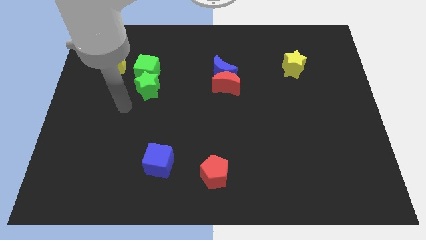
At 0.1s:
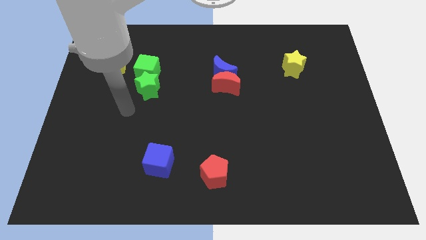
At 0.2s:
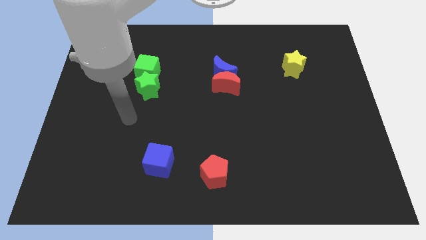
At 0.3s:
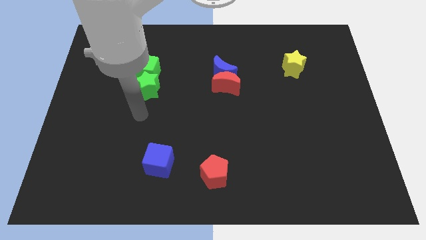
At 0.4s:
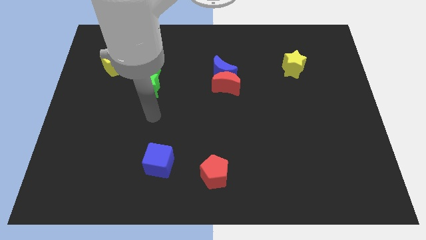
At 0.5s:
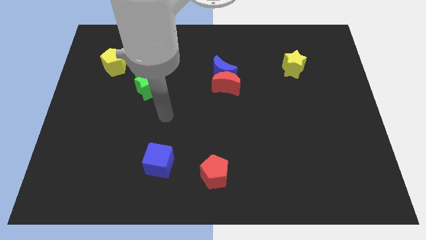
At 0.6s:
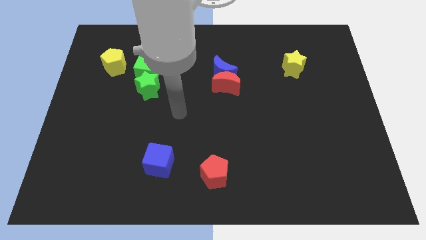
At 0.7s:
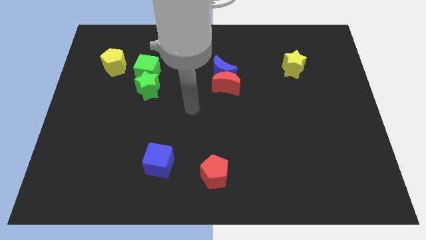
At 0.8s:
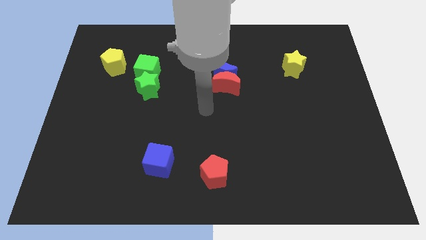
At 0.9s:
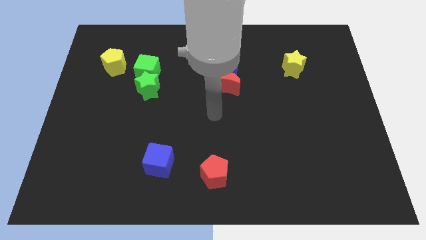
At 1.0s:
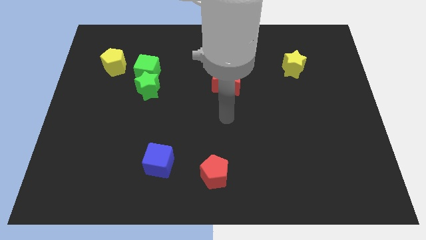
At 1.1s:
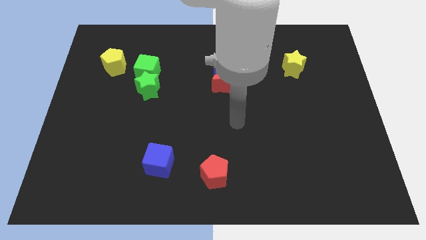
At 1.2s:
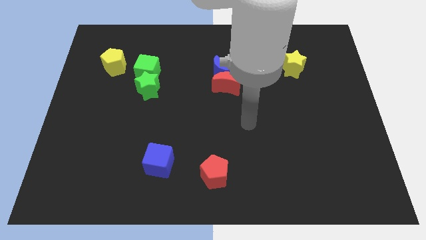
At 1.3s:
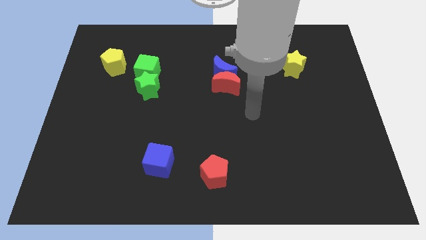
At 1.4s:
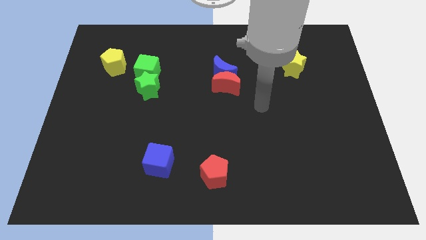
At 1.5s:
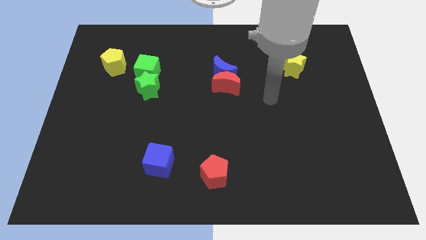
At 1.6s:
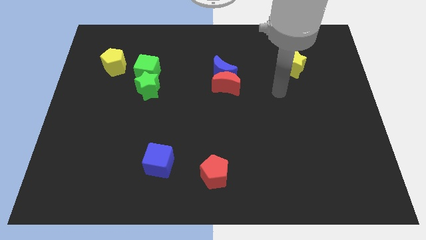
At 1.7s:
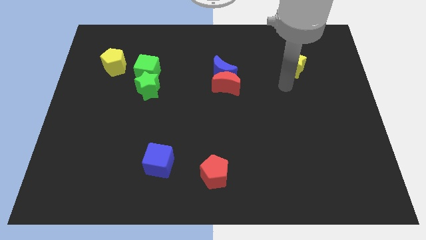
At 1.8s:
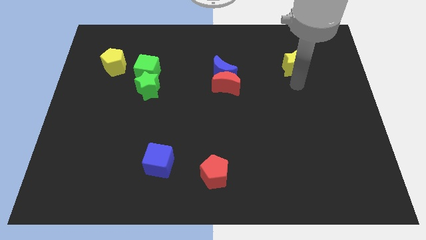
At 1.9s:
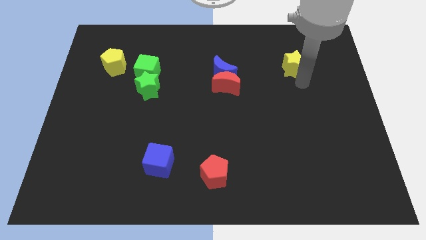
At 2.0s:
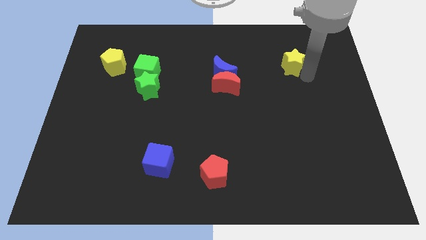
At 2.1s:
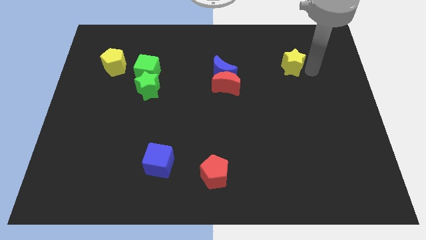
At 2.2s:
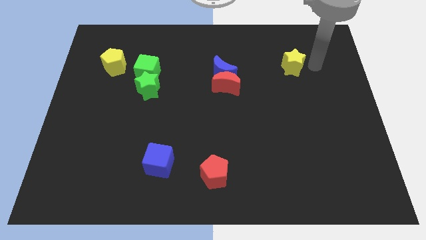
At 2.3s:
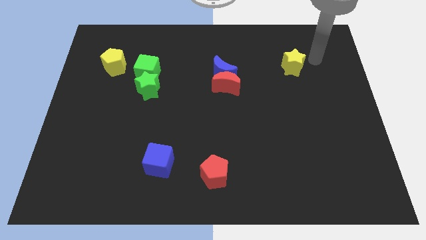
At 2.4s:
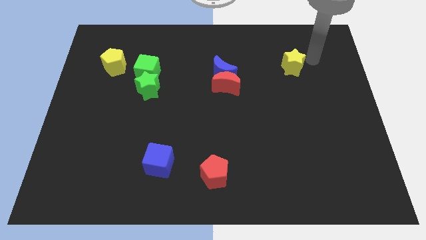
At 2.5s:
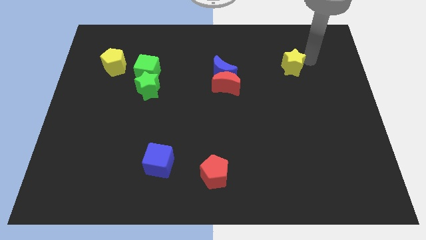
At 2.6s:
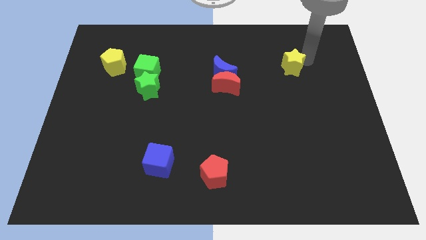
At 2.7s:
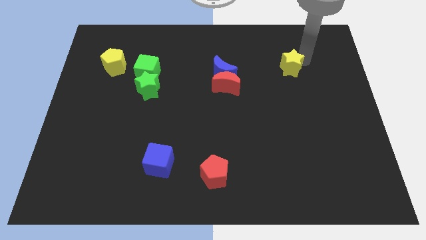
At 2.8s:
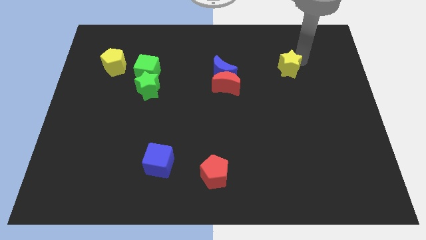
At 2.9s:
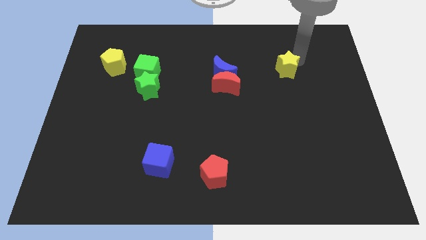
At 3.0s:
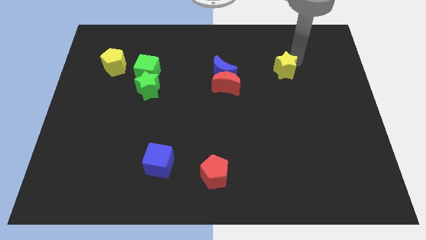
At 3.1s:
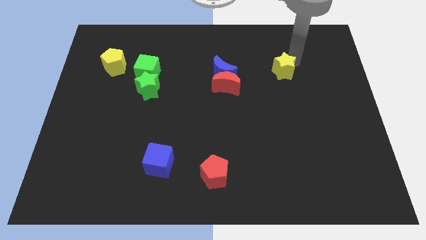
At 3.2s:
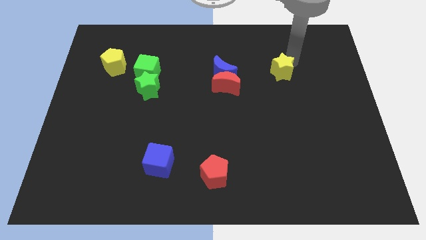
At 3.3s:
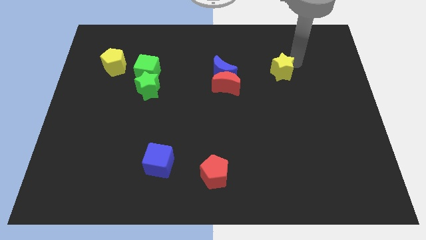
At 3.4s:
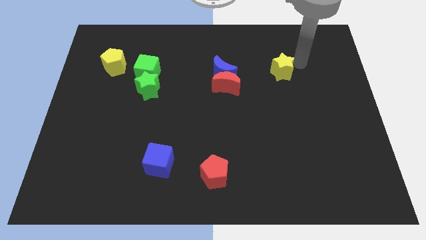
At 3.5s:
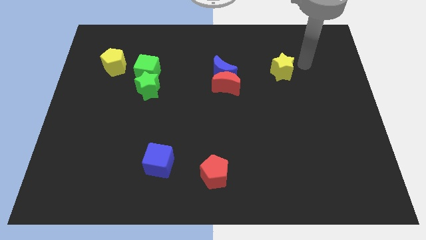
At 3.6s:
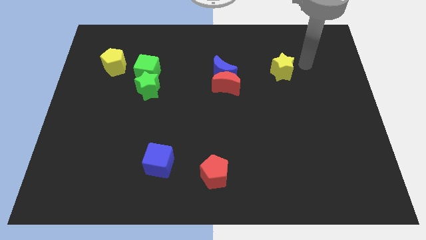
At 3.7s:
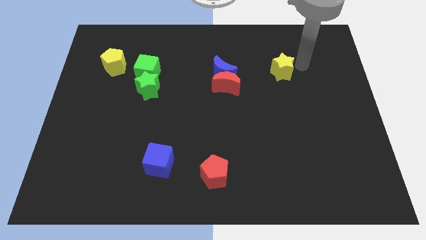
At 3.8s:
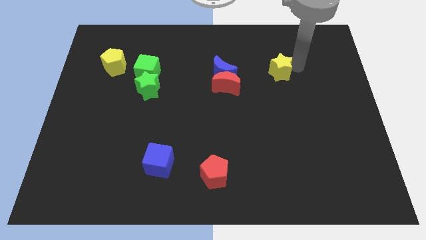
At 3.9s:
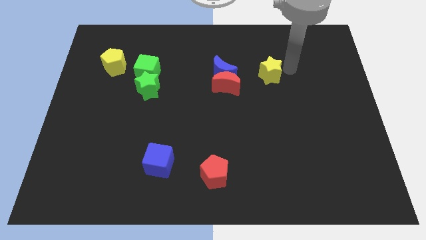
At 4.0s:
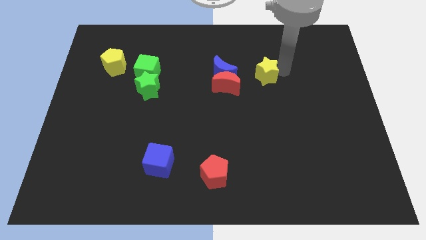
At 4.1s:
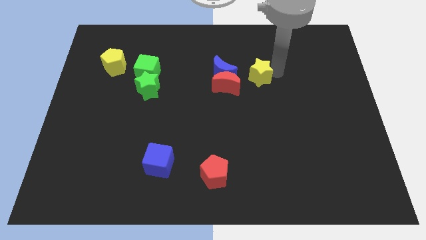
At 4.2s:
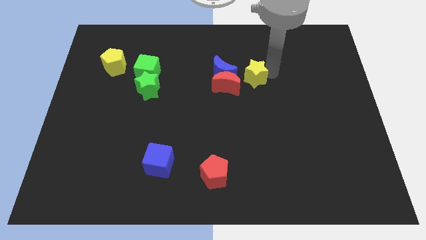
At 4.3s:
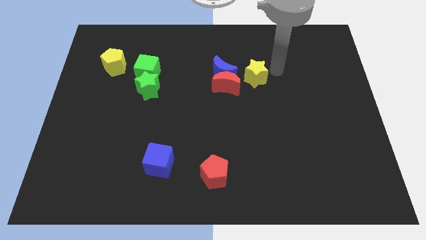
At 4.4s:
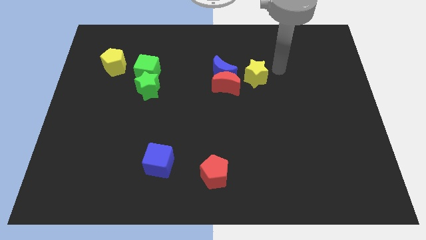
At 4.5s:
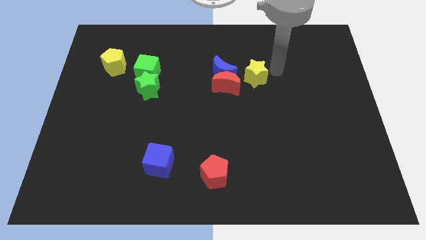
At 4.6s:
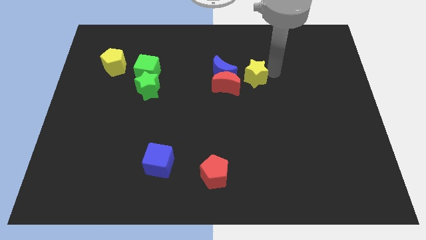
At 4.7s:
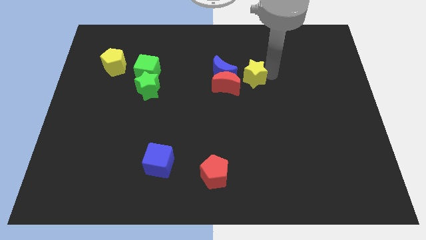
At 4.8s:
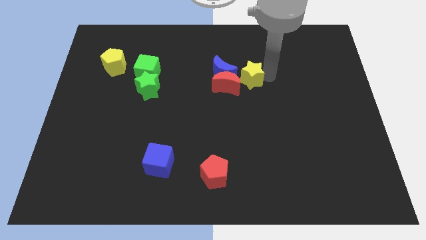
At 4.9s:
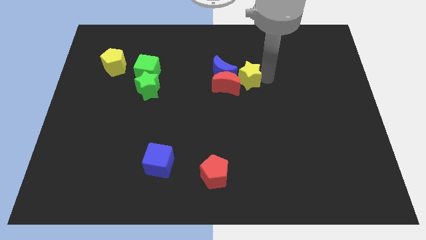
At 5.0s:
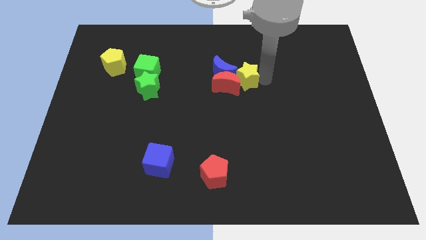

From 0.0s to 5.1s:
slide the yellow star towards the red moon

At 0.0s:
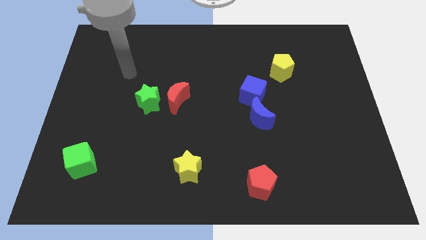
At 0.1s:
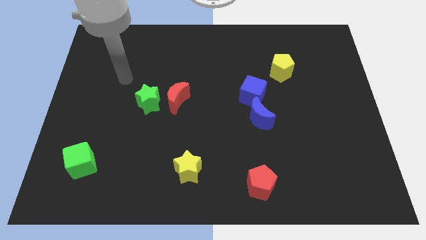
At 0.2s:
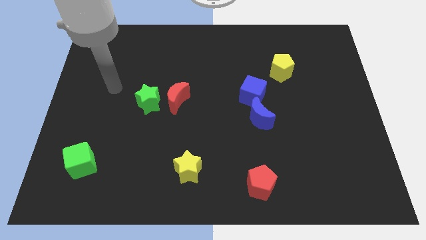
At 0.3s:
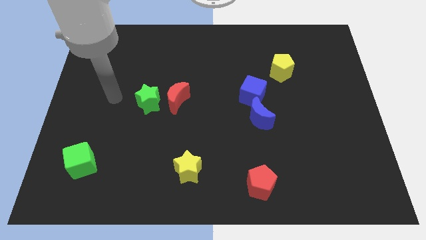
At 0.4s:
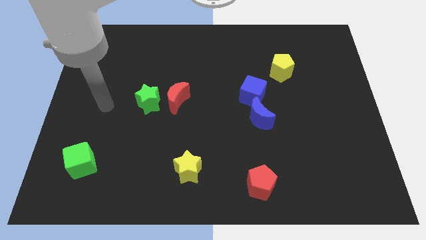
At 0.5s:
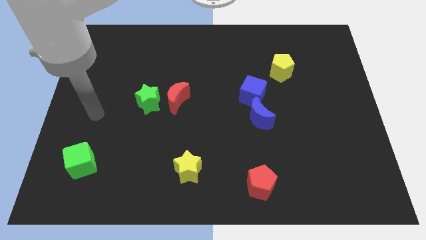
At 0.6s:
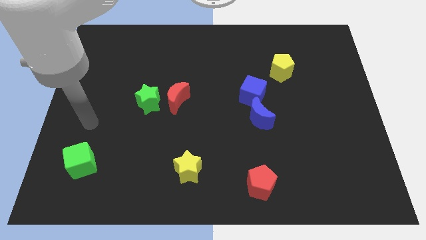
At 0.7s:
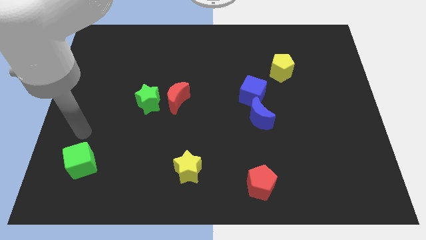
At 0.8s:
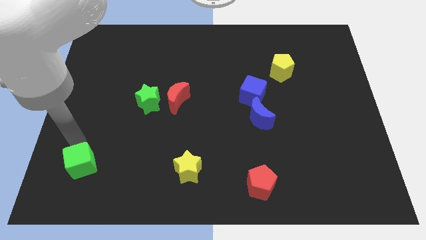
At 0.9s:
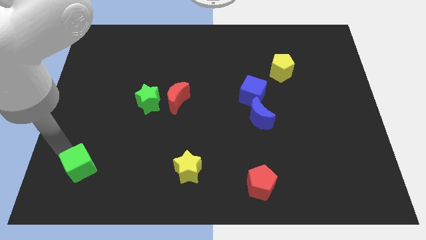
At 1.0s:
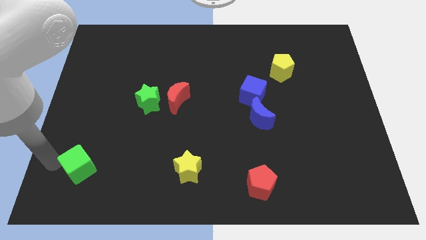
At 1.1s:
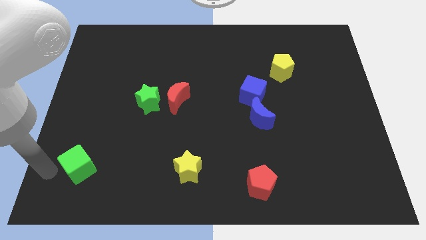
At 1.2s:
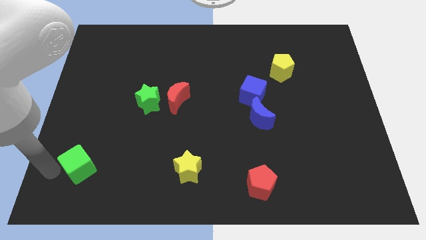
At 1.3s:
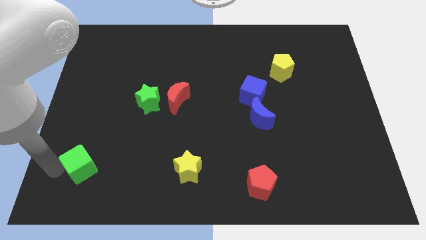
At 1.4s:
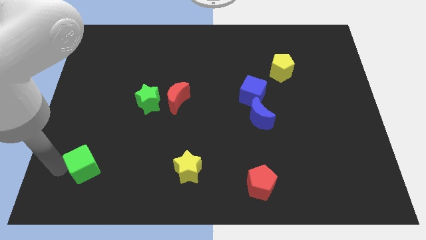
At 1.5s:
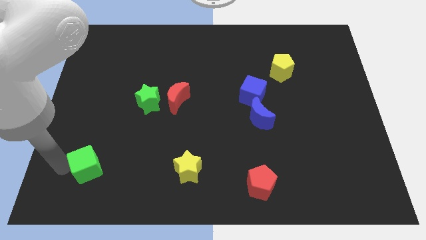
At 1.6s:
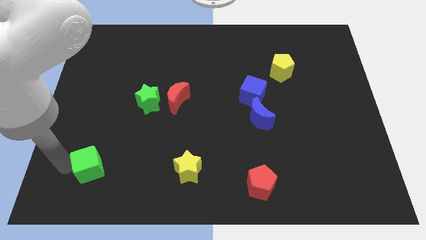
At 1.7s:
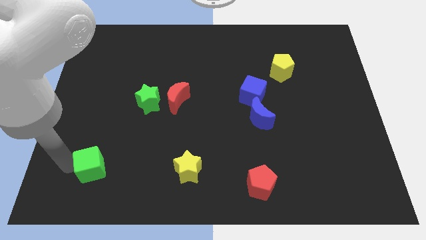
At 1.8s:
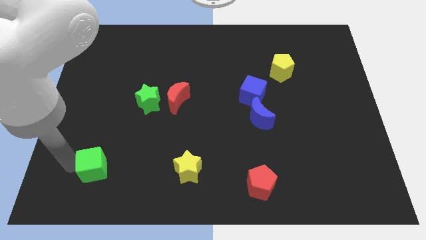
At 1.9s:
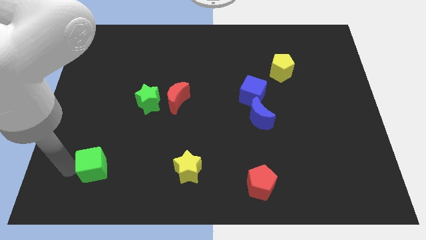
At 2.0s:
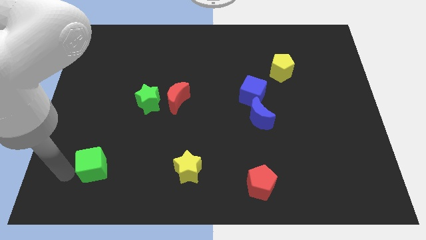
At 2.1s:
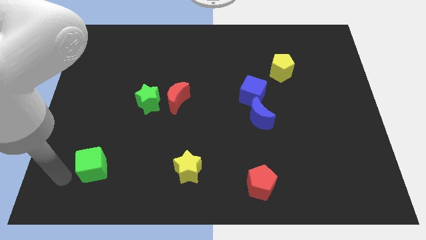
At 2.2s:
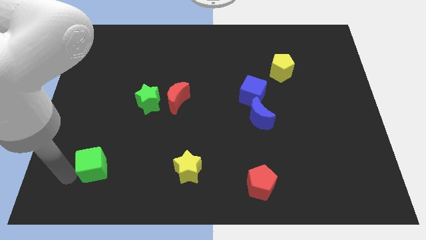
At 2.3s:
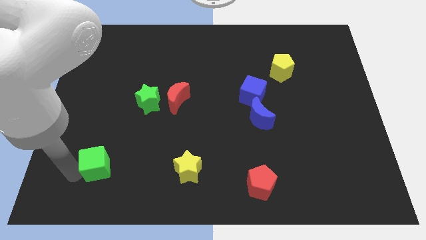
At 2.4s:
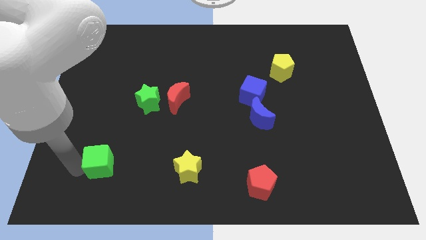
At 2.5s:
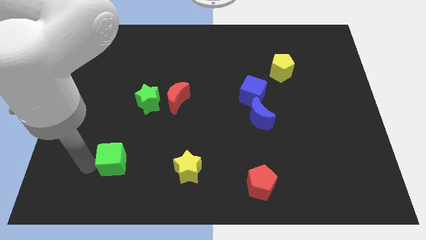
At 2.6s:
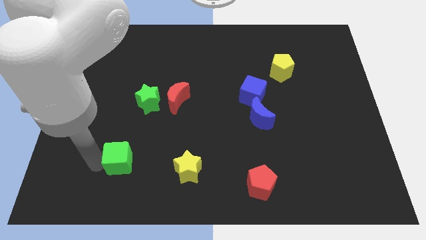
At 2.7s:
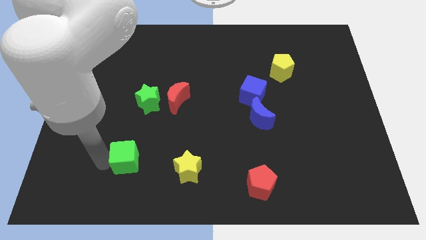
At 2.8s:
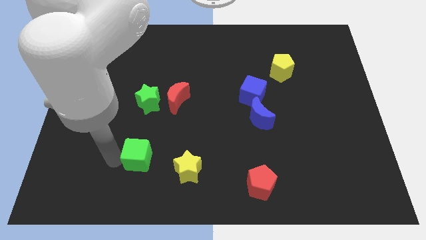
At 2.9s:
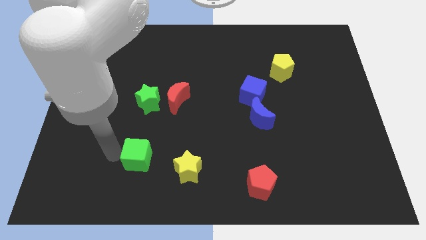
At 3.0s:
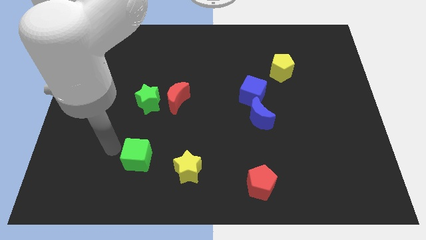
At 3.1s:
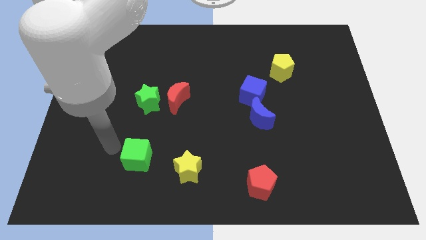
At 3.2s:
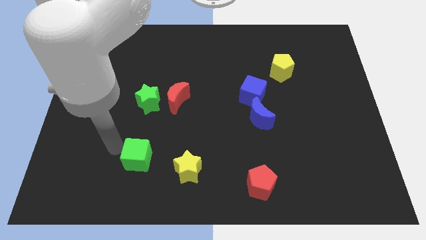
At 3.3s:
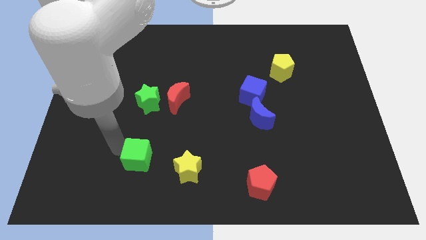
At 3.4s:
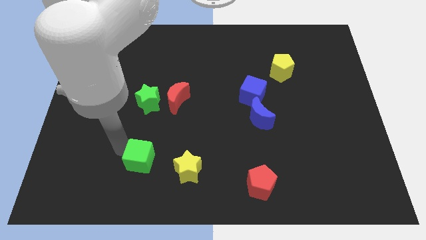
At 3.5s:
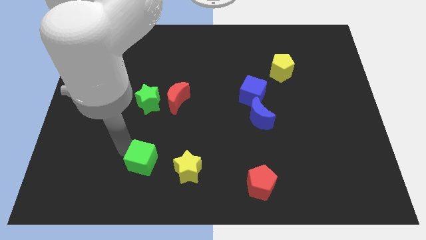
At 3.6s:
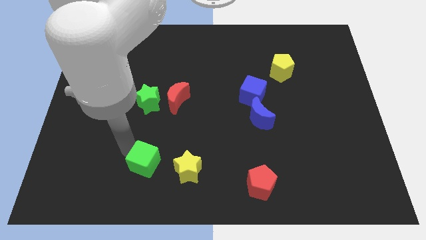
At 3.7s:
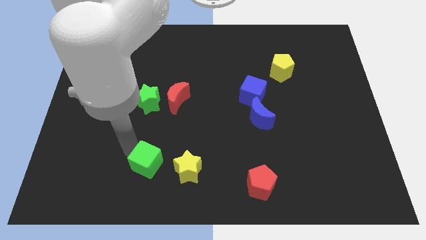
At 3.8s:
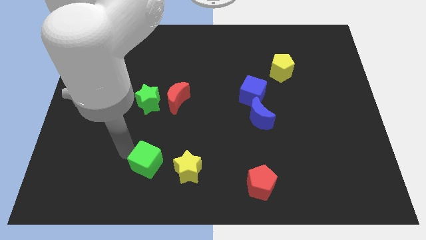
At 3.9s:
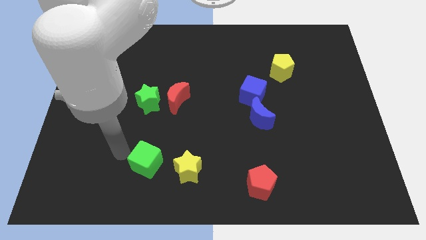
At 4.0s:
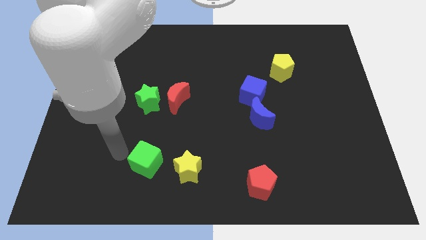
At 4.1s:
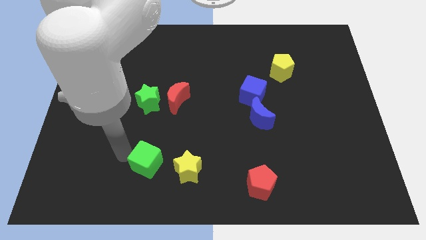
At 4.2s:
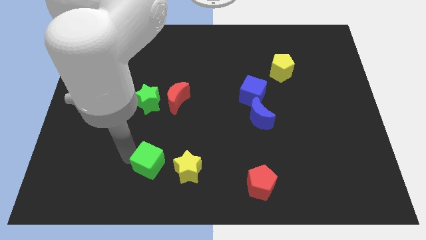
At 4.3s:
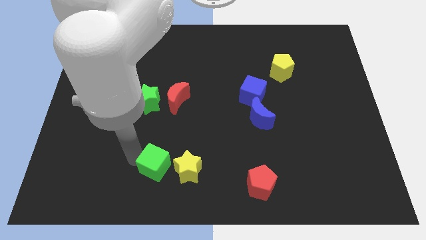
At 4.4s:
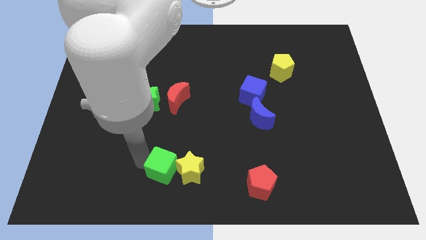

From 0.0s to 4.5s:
slide the green cube close to the yellow star
